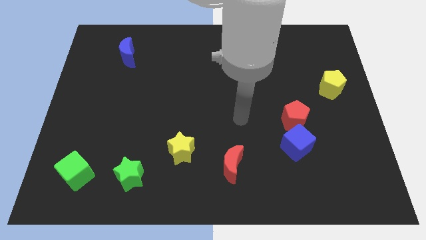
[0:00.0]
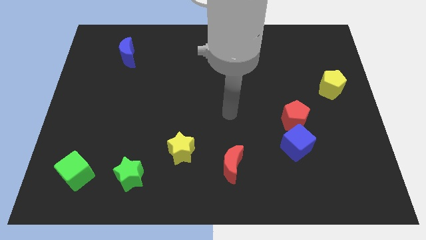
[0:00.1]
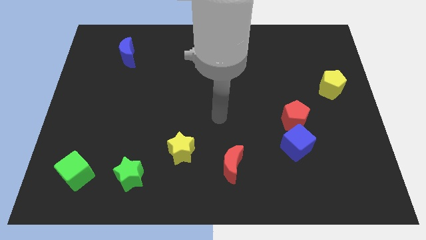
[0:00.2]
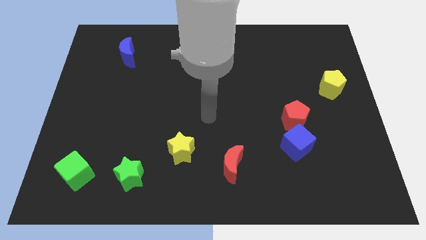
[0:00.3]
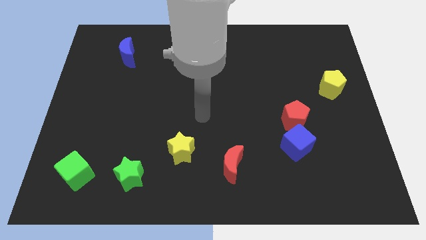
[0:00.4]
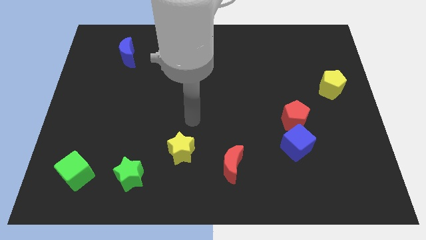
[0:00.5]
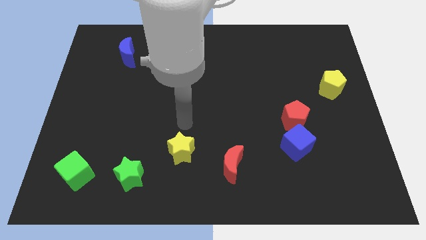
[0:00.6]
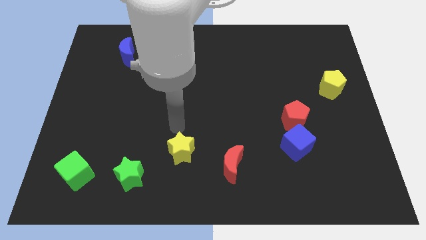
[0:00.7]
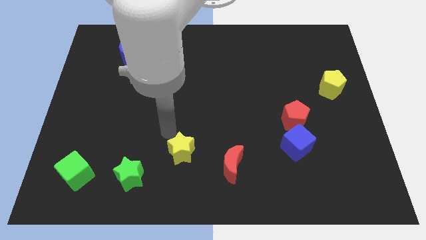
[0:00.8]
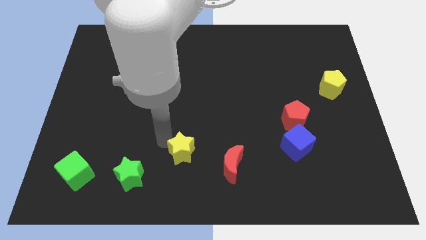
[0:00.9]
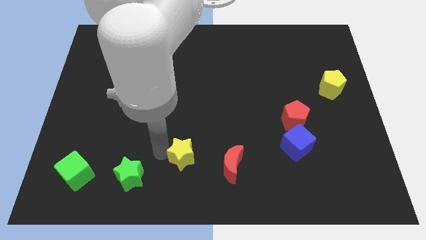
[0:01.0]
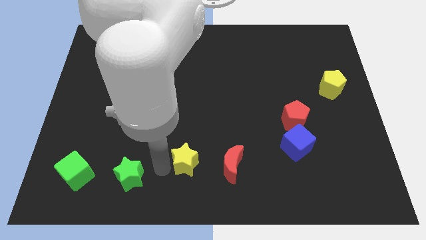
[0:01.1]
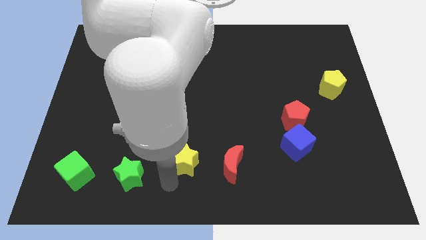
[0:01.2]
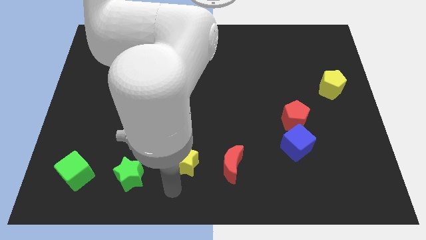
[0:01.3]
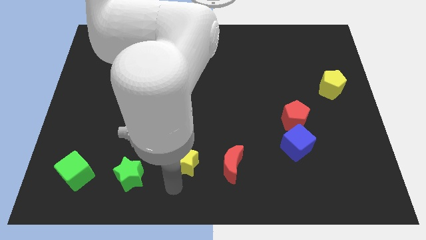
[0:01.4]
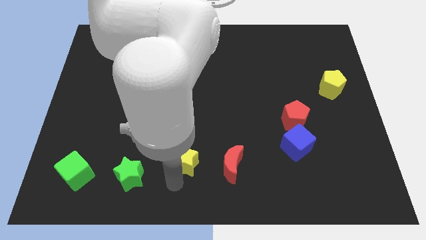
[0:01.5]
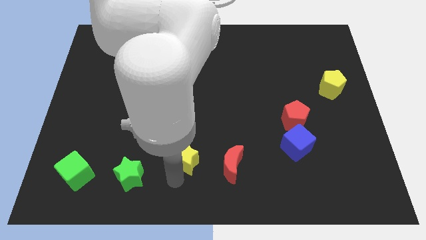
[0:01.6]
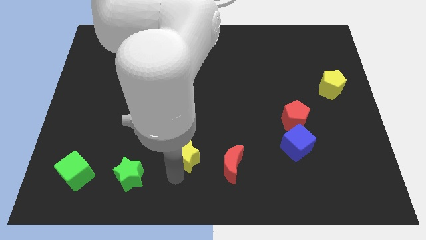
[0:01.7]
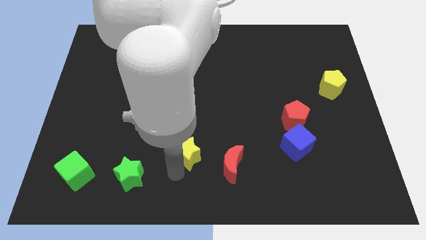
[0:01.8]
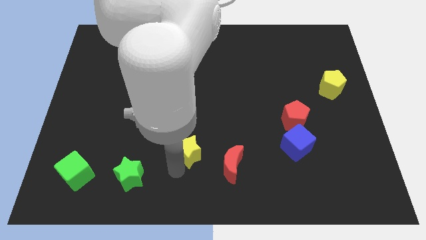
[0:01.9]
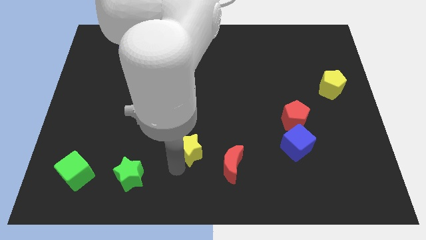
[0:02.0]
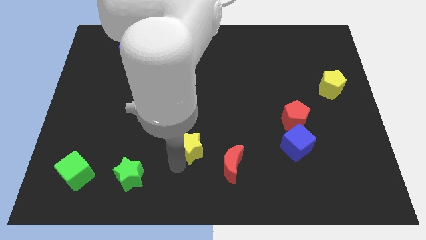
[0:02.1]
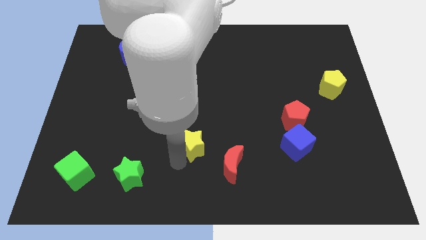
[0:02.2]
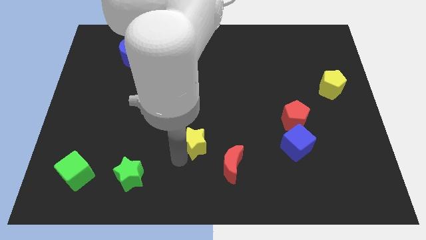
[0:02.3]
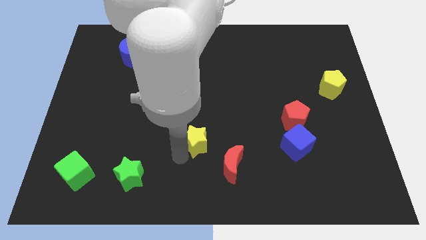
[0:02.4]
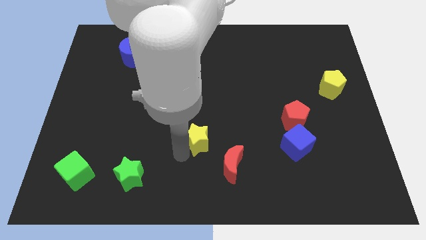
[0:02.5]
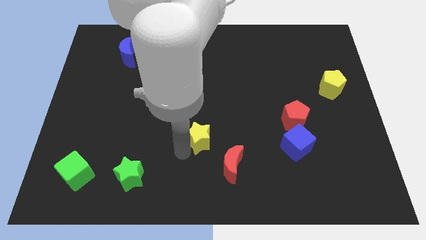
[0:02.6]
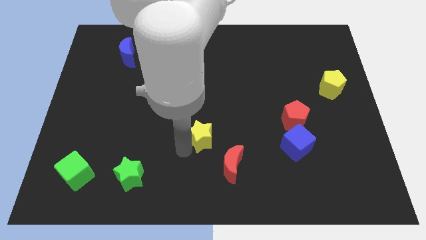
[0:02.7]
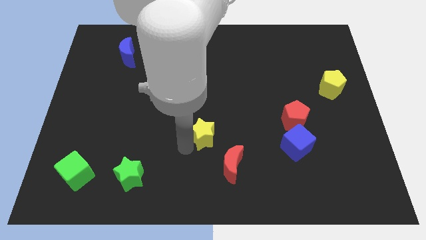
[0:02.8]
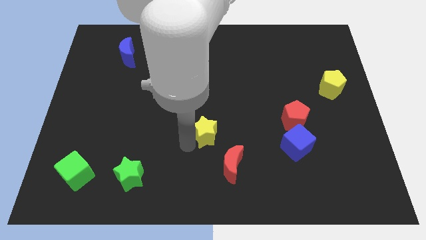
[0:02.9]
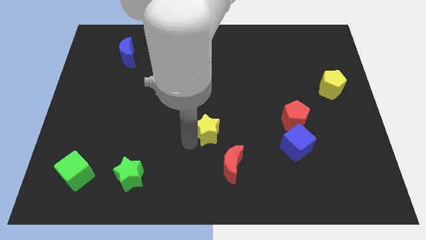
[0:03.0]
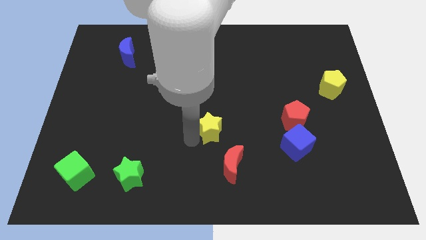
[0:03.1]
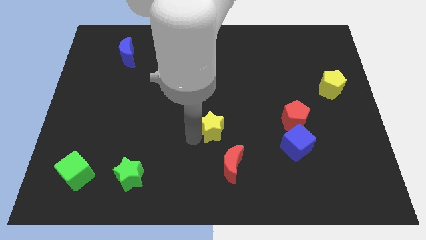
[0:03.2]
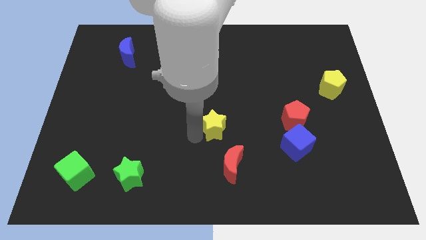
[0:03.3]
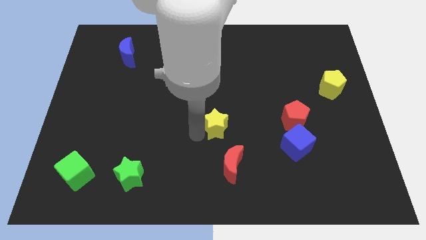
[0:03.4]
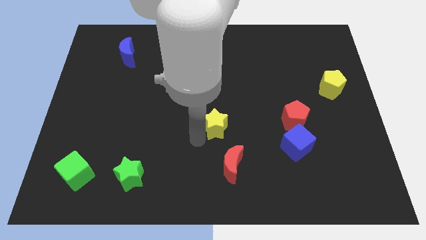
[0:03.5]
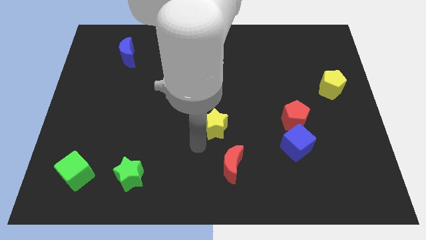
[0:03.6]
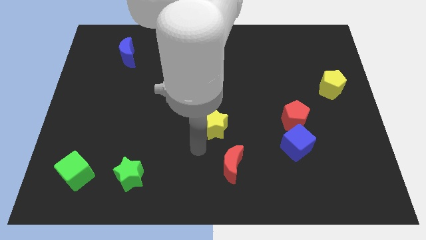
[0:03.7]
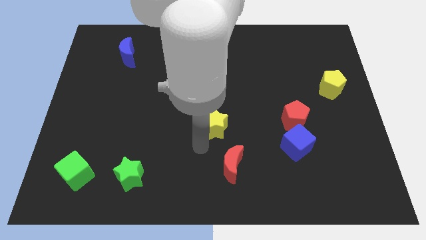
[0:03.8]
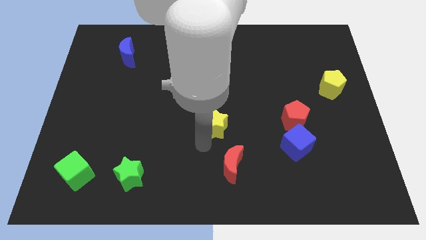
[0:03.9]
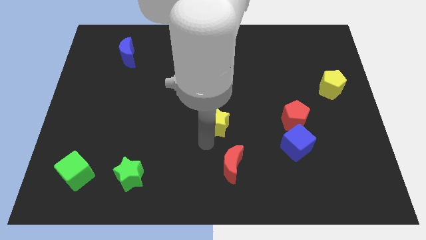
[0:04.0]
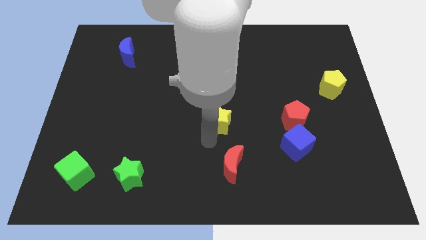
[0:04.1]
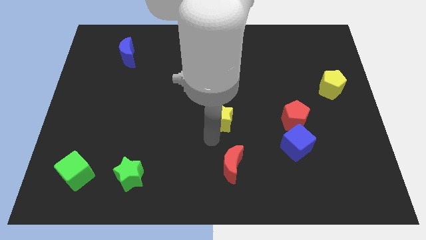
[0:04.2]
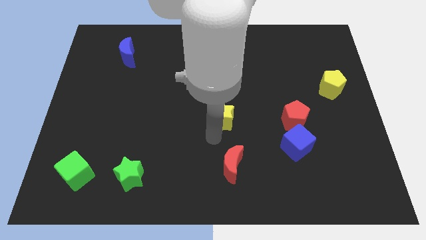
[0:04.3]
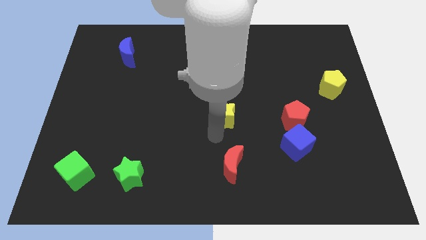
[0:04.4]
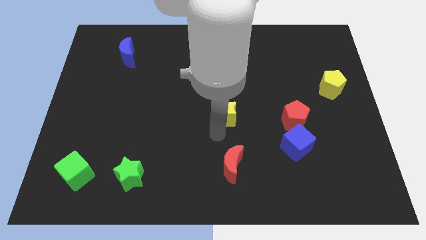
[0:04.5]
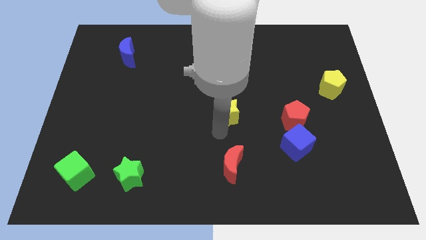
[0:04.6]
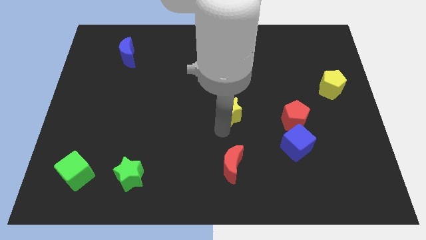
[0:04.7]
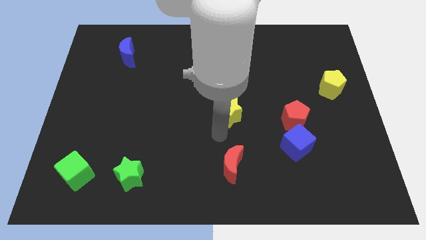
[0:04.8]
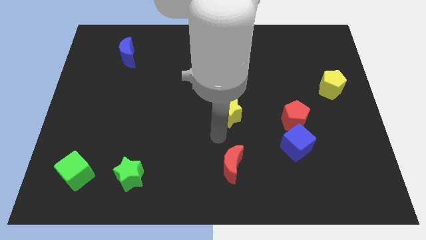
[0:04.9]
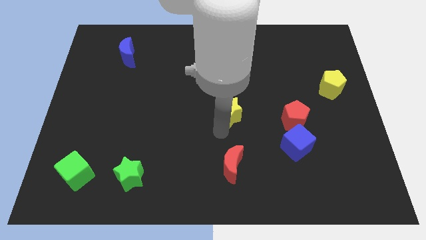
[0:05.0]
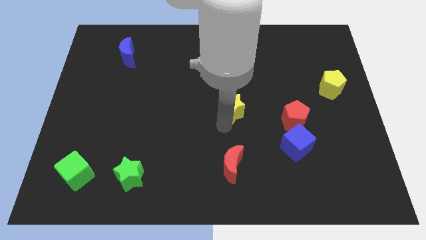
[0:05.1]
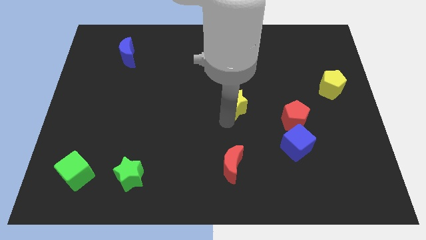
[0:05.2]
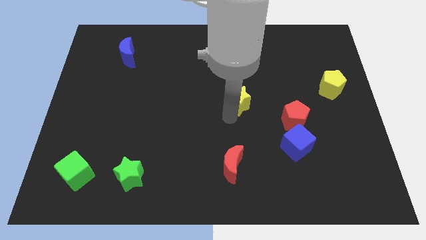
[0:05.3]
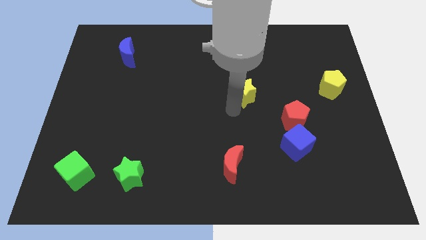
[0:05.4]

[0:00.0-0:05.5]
move the yellow star up and then right

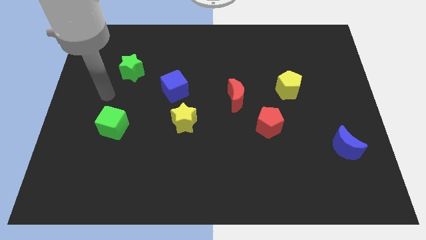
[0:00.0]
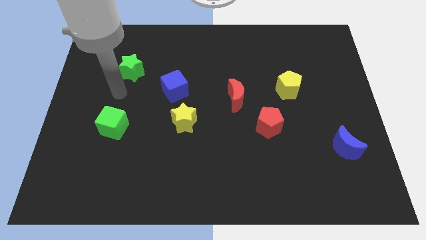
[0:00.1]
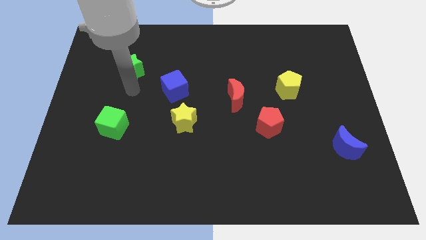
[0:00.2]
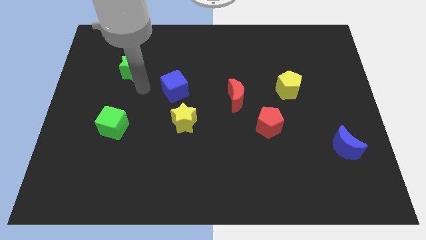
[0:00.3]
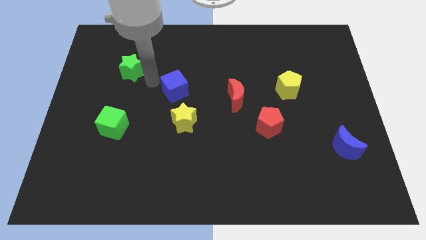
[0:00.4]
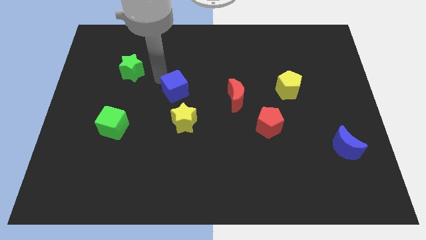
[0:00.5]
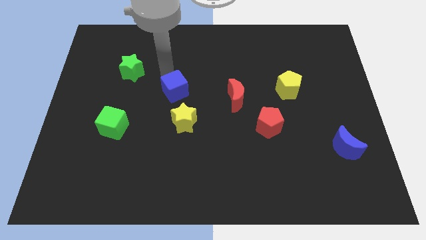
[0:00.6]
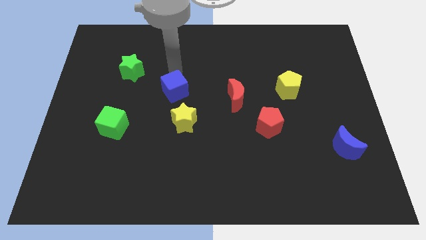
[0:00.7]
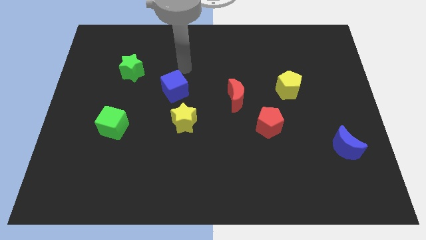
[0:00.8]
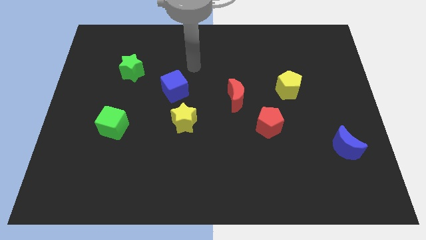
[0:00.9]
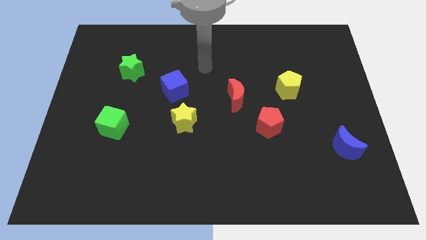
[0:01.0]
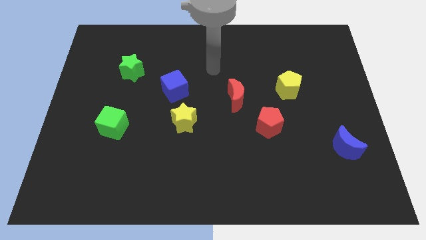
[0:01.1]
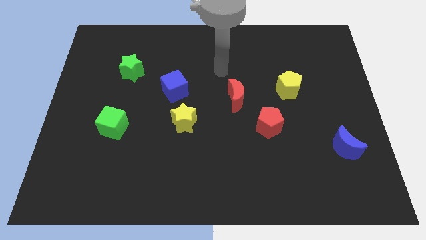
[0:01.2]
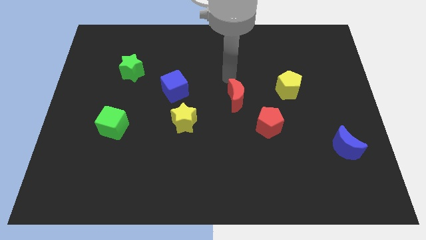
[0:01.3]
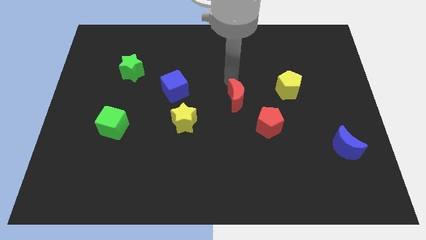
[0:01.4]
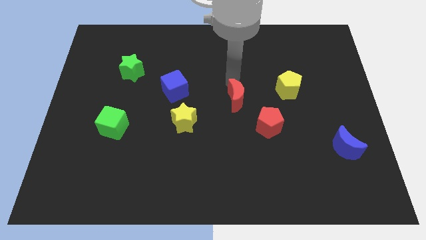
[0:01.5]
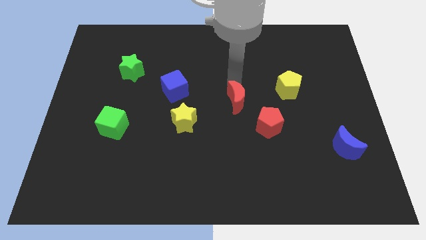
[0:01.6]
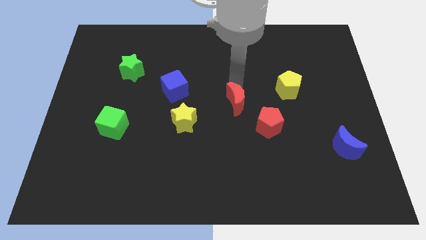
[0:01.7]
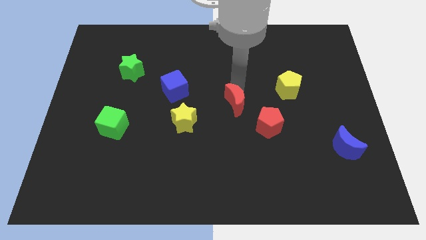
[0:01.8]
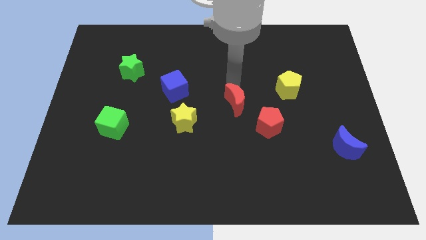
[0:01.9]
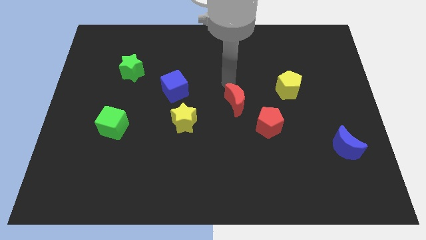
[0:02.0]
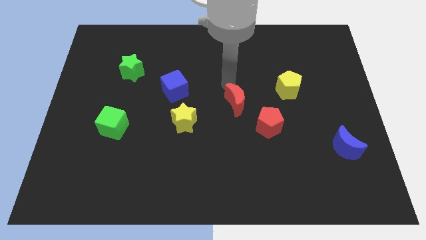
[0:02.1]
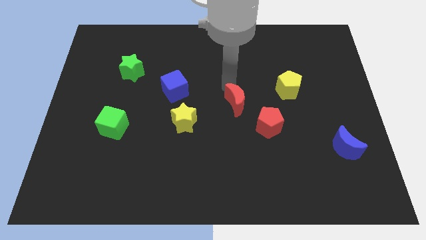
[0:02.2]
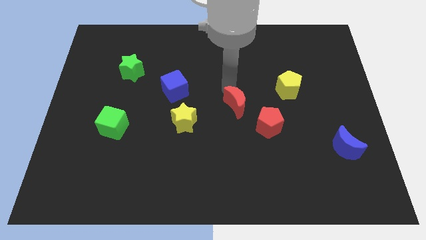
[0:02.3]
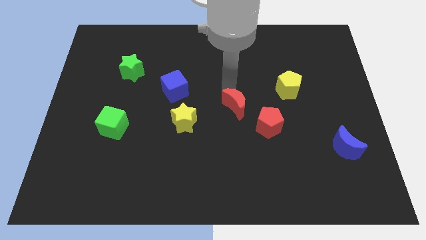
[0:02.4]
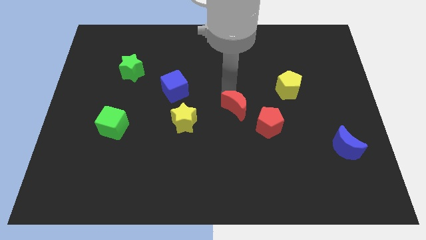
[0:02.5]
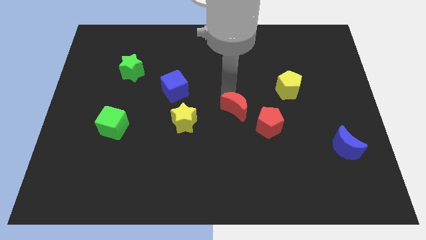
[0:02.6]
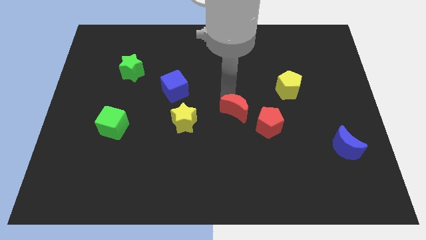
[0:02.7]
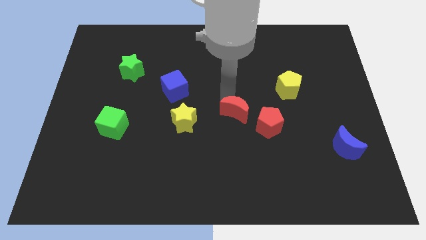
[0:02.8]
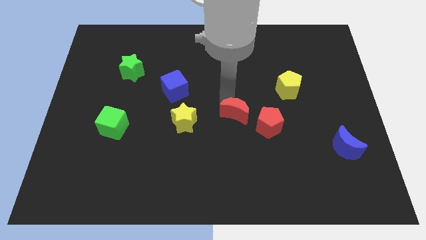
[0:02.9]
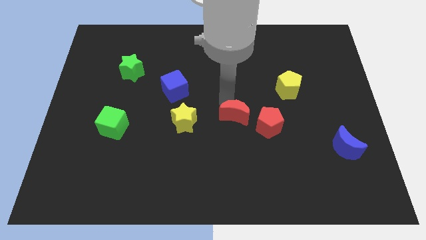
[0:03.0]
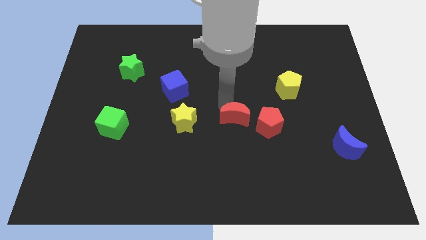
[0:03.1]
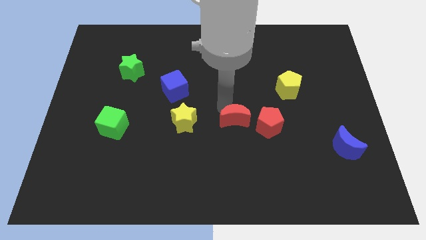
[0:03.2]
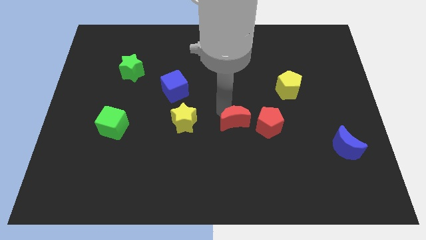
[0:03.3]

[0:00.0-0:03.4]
move the red moon slightly down
